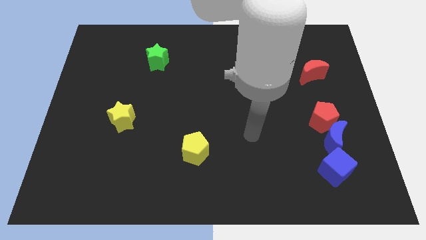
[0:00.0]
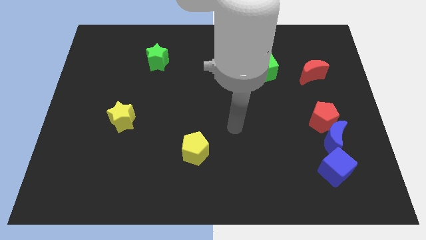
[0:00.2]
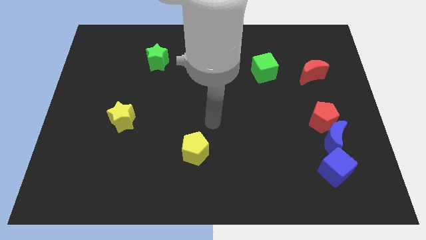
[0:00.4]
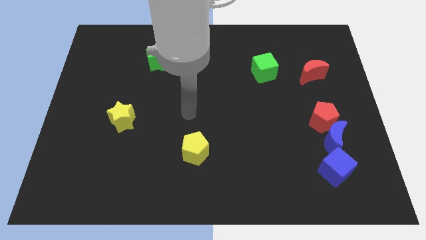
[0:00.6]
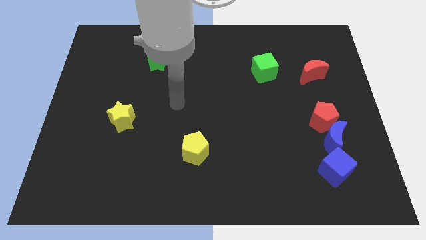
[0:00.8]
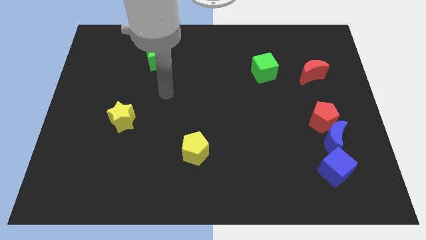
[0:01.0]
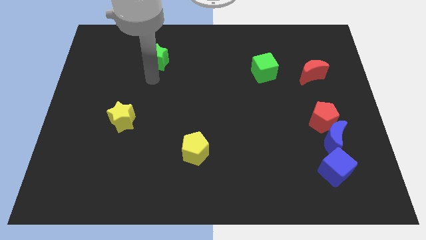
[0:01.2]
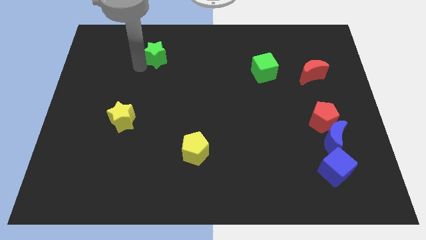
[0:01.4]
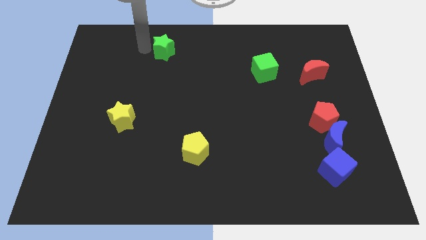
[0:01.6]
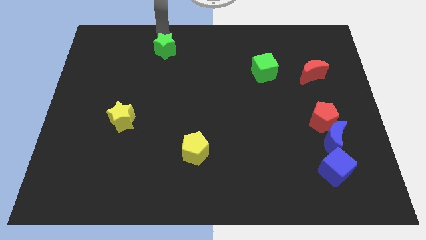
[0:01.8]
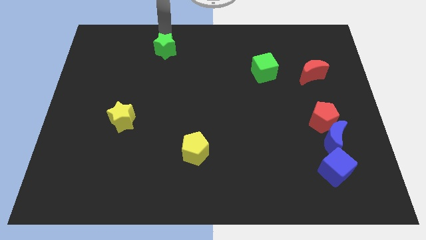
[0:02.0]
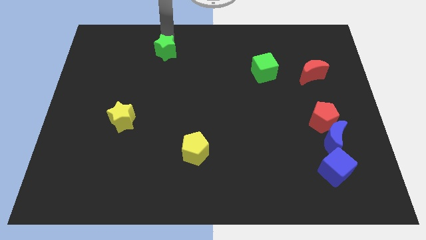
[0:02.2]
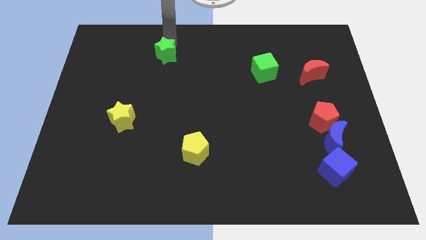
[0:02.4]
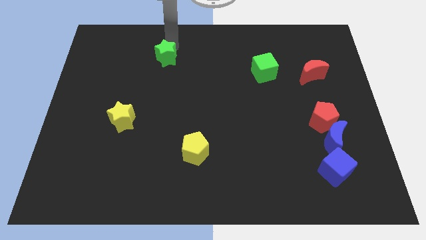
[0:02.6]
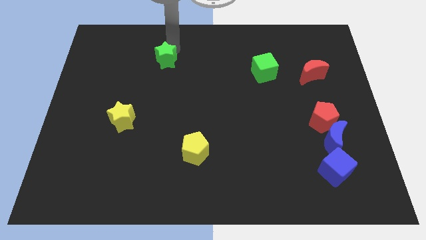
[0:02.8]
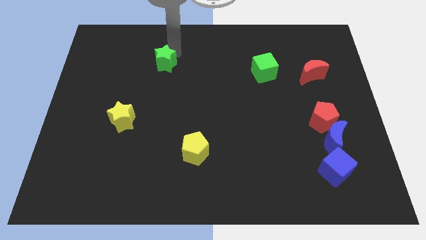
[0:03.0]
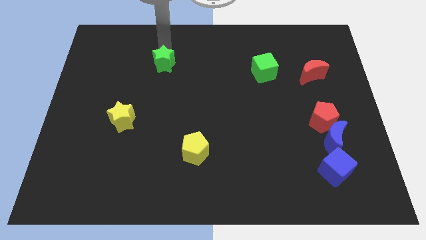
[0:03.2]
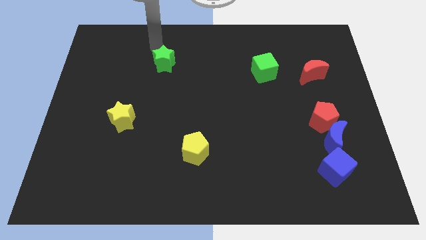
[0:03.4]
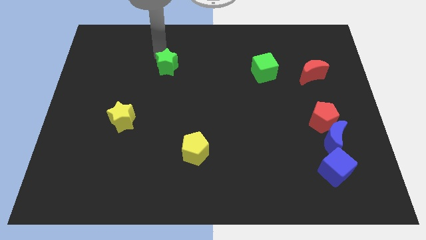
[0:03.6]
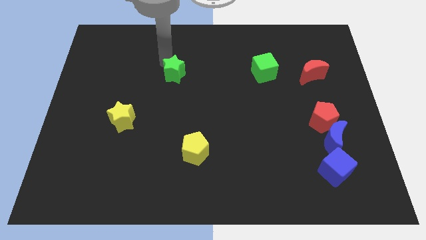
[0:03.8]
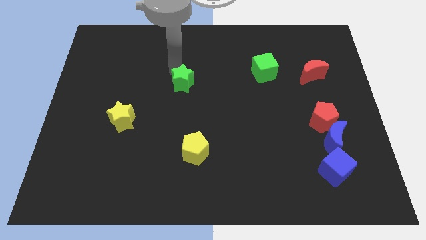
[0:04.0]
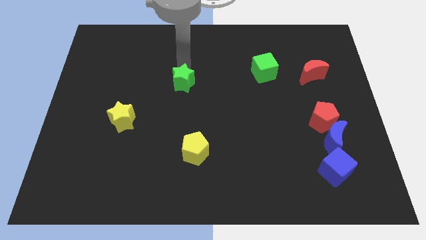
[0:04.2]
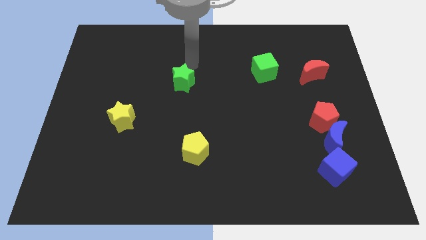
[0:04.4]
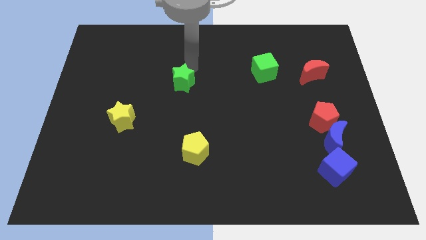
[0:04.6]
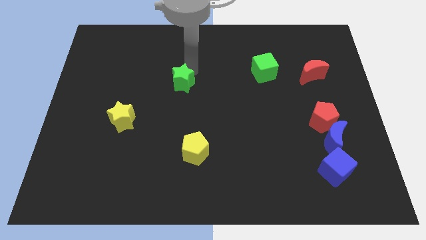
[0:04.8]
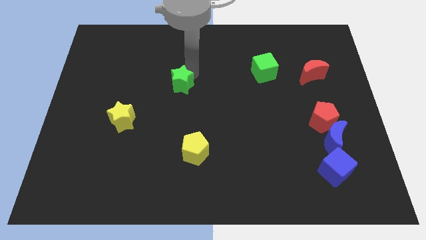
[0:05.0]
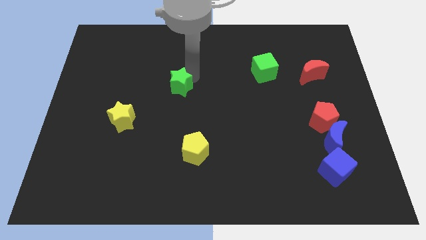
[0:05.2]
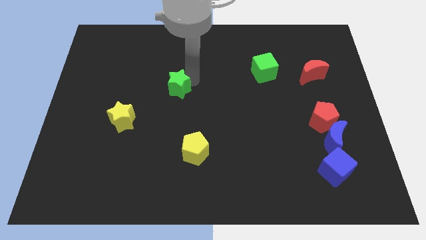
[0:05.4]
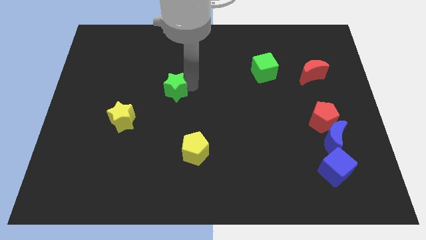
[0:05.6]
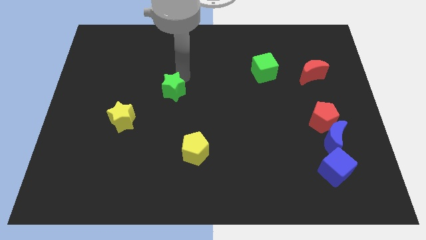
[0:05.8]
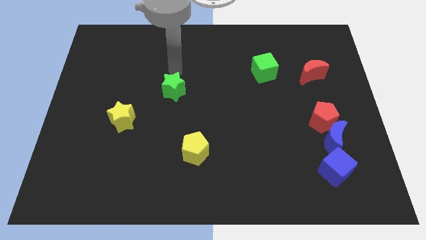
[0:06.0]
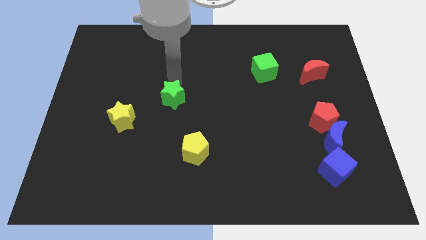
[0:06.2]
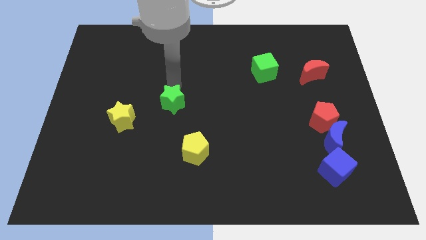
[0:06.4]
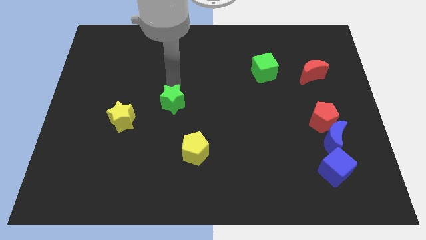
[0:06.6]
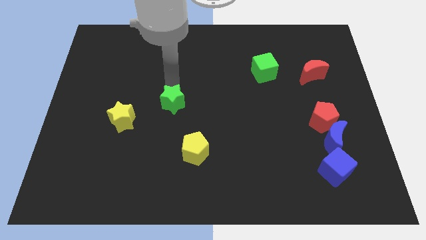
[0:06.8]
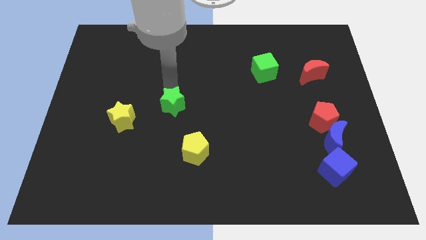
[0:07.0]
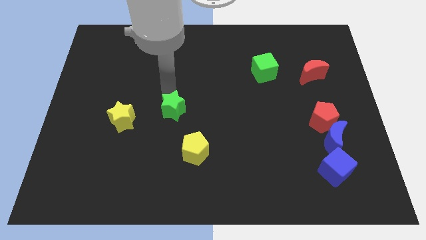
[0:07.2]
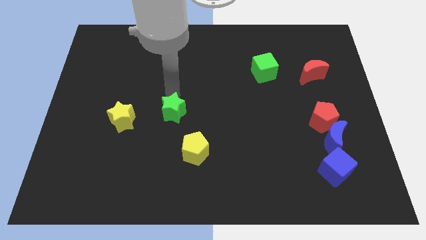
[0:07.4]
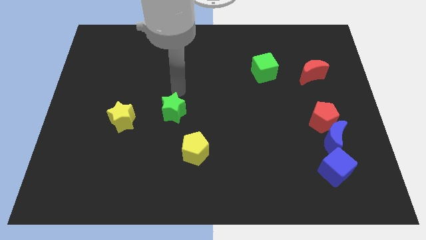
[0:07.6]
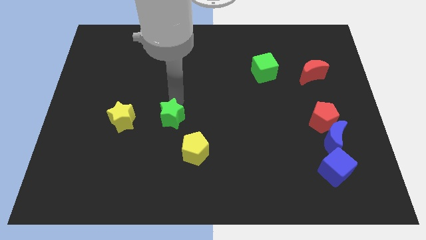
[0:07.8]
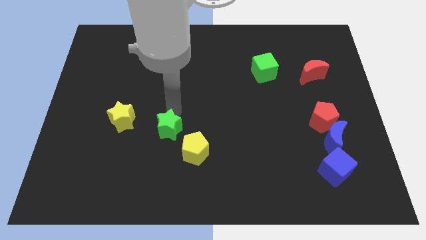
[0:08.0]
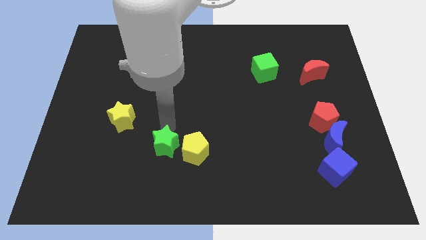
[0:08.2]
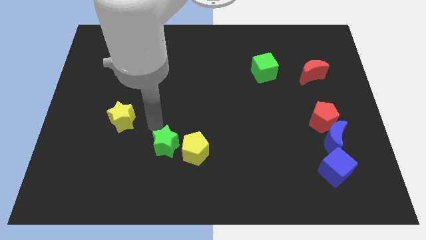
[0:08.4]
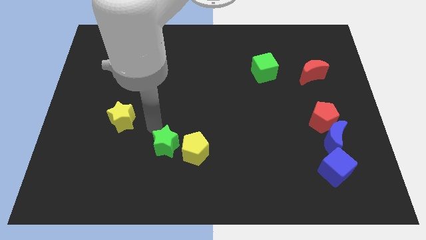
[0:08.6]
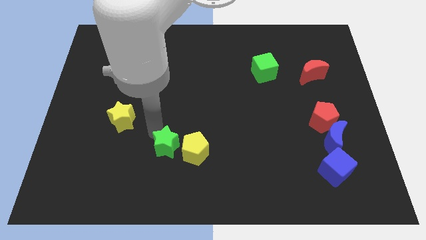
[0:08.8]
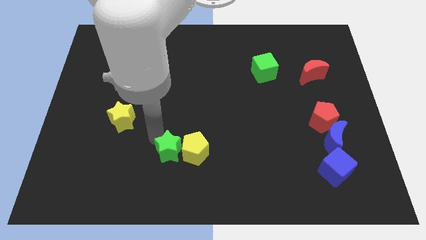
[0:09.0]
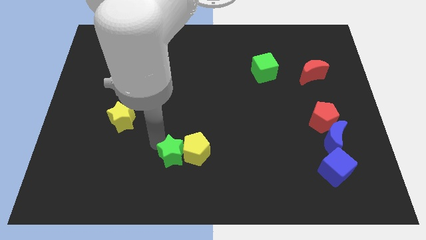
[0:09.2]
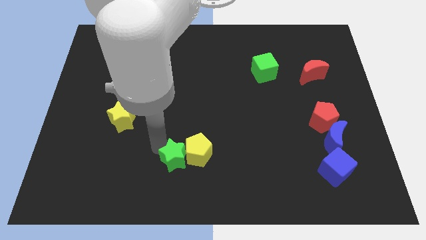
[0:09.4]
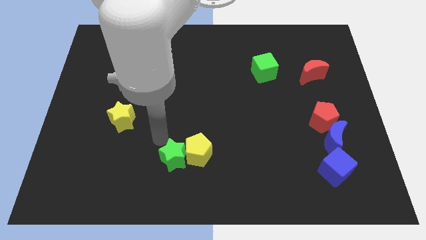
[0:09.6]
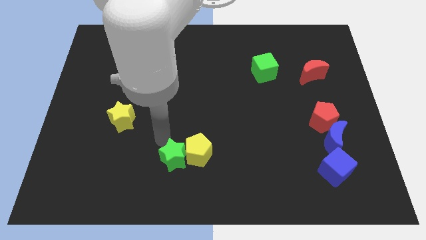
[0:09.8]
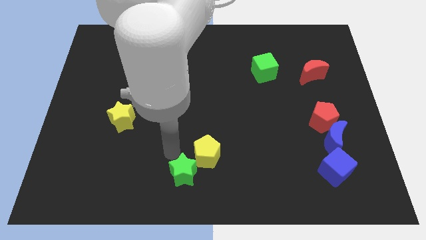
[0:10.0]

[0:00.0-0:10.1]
slide the green star to the bottom

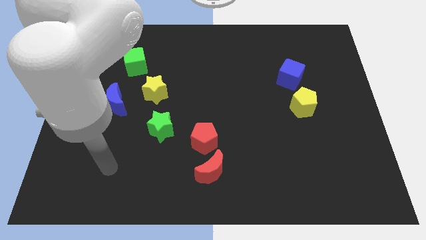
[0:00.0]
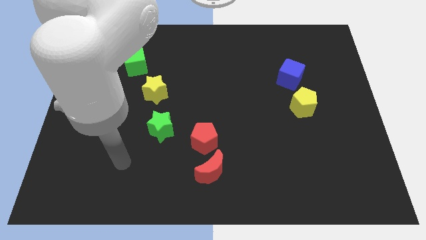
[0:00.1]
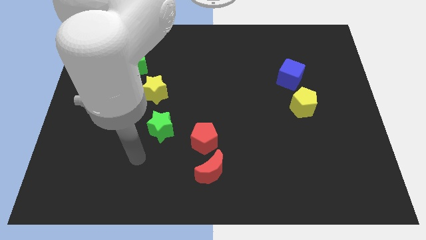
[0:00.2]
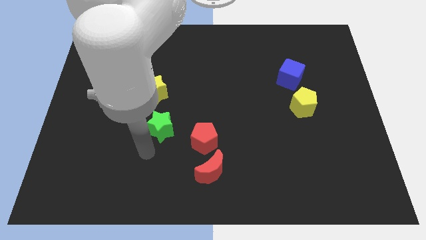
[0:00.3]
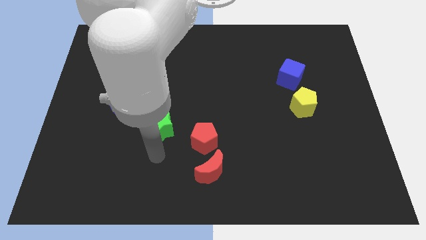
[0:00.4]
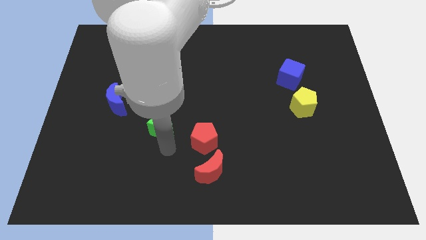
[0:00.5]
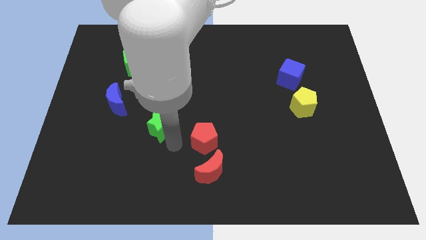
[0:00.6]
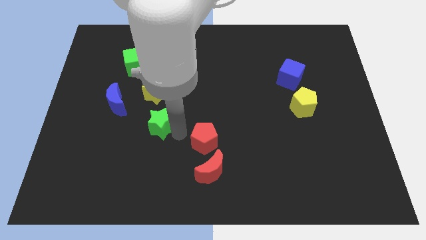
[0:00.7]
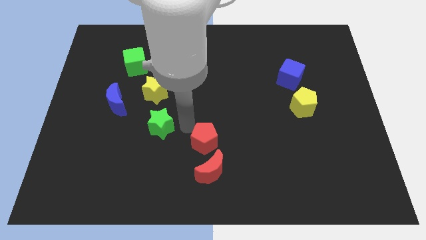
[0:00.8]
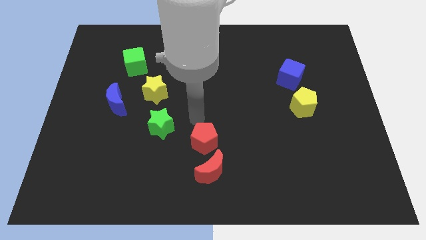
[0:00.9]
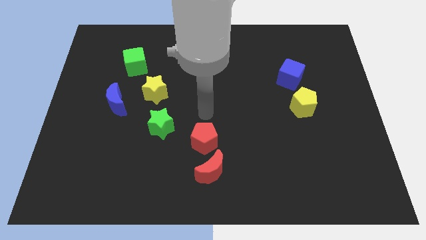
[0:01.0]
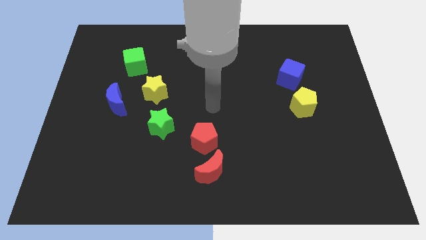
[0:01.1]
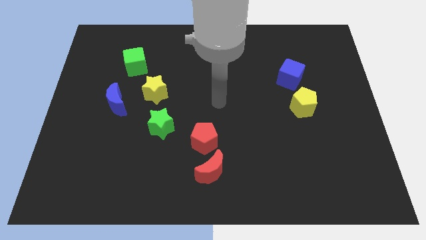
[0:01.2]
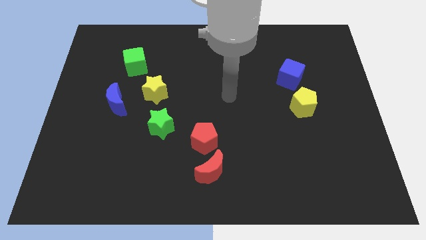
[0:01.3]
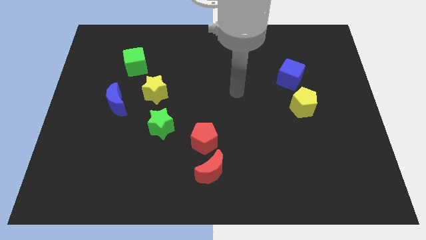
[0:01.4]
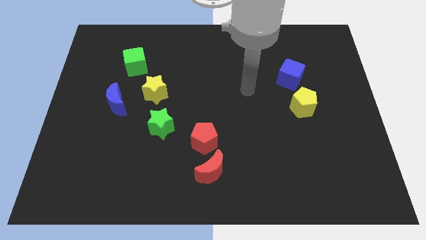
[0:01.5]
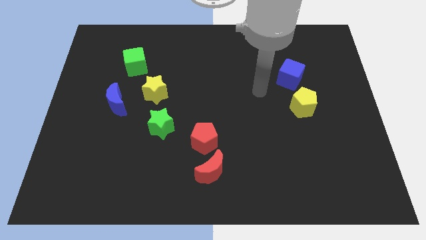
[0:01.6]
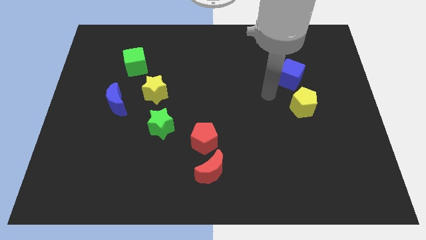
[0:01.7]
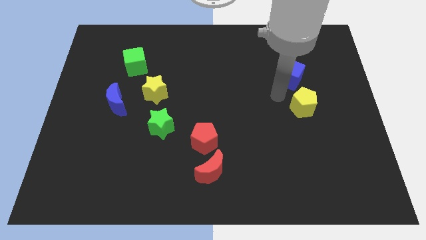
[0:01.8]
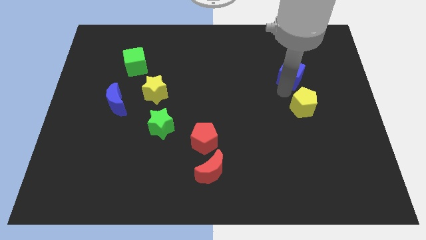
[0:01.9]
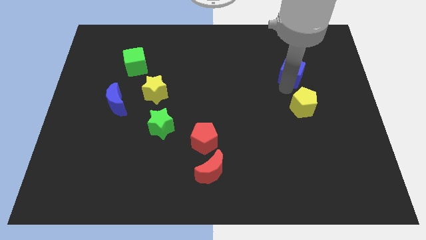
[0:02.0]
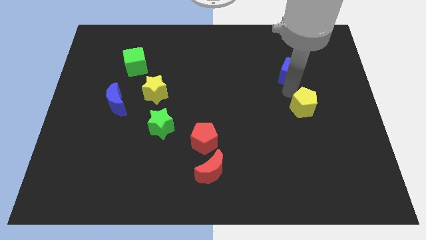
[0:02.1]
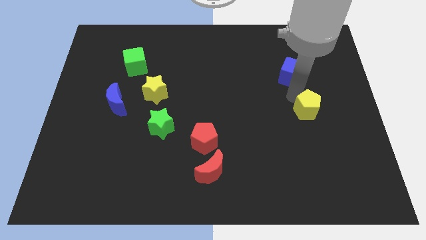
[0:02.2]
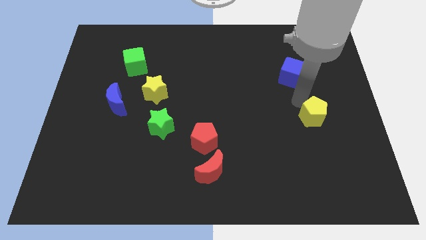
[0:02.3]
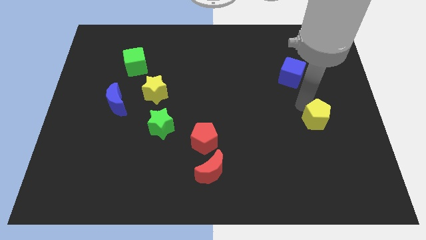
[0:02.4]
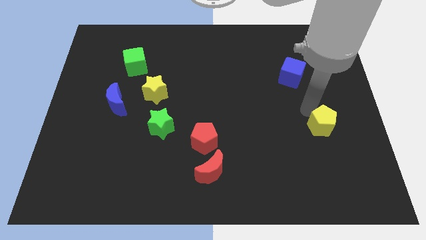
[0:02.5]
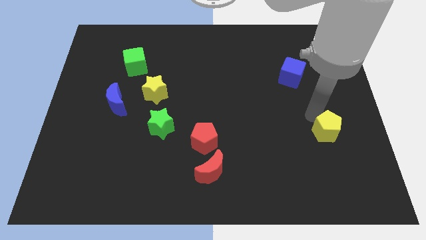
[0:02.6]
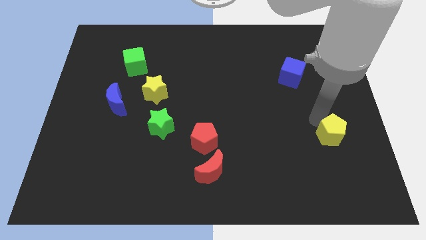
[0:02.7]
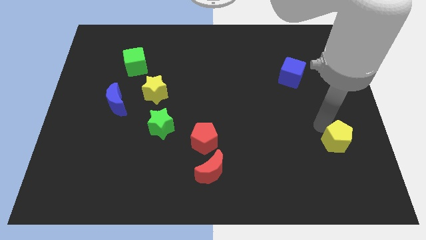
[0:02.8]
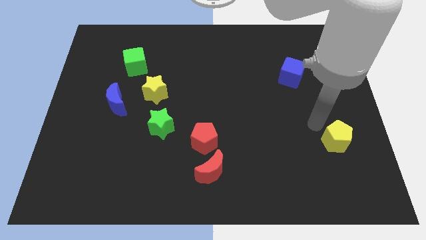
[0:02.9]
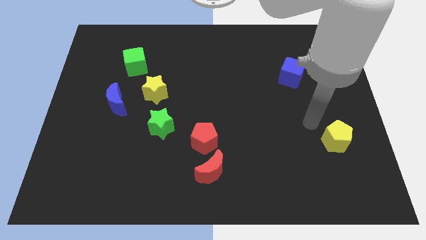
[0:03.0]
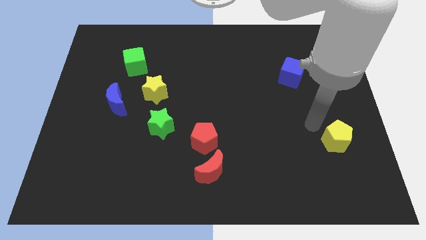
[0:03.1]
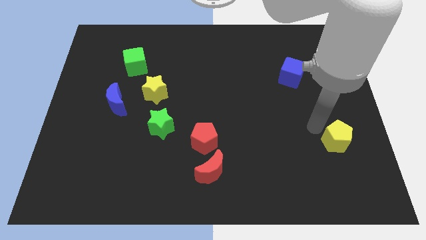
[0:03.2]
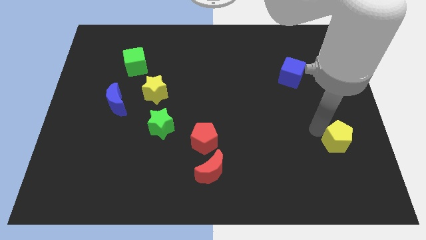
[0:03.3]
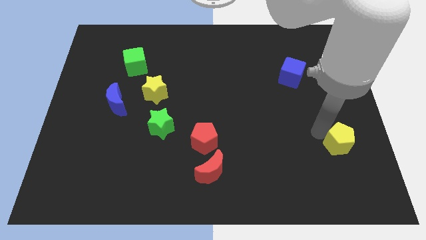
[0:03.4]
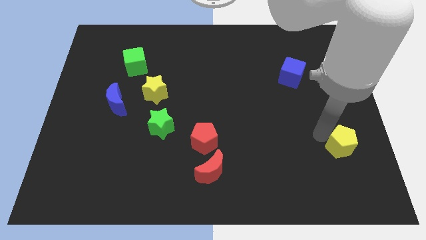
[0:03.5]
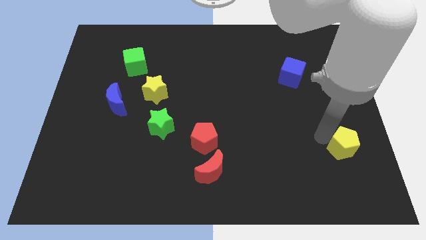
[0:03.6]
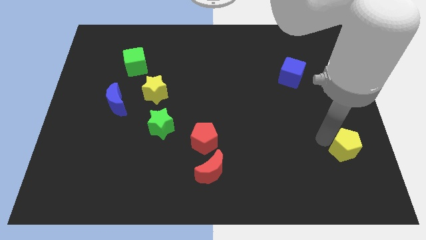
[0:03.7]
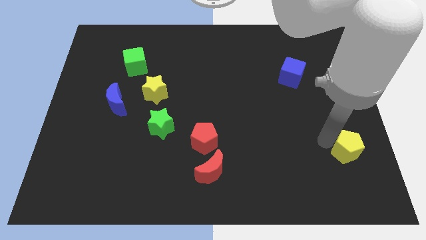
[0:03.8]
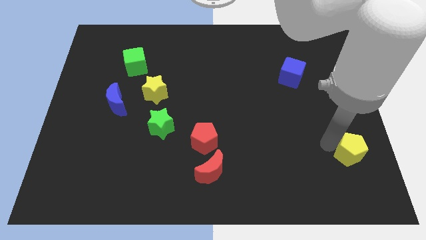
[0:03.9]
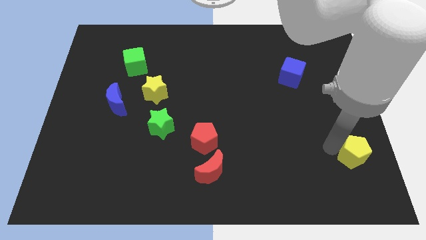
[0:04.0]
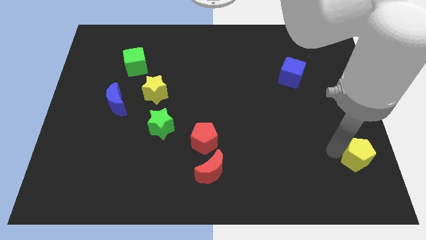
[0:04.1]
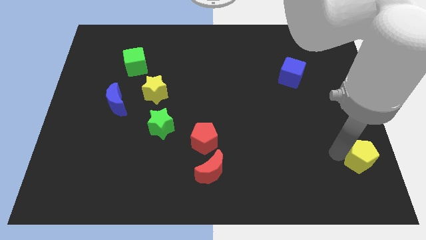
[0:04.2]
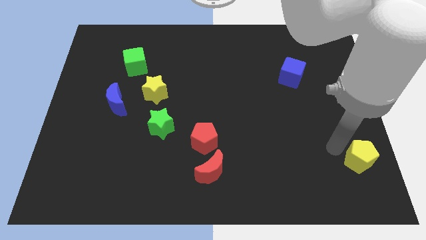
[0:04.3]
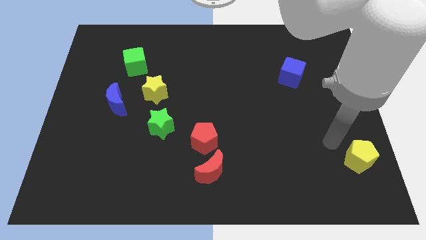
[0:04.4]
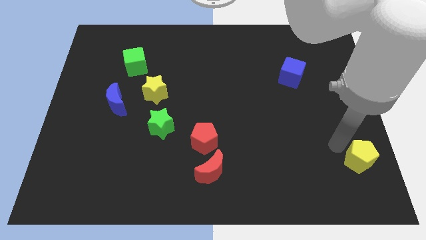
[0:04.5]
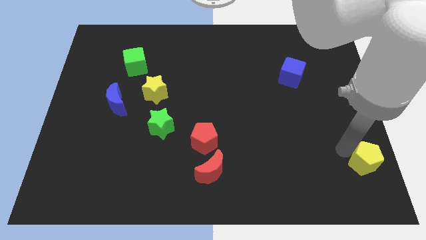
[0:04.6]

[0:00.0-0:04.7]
push the yellow pentagon to the bottom right of the board
